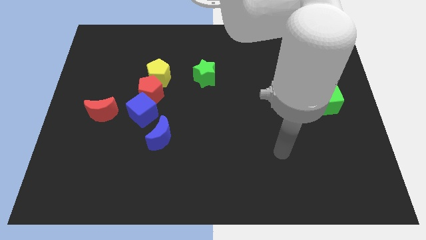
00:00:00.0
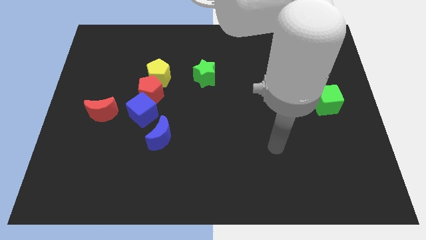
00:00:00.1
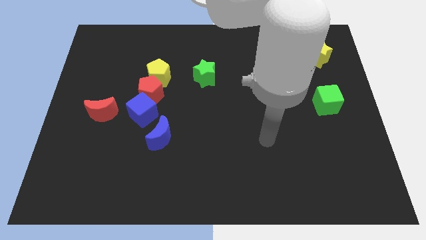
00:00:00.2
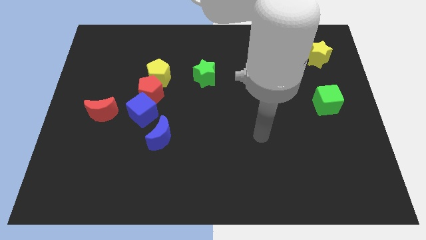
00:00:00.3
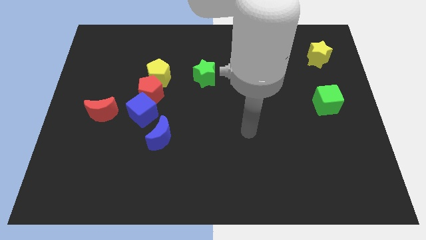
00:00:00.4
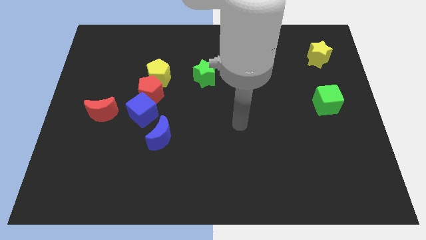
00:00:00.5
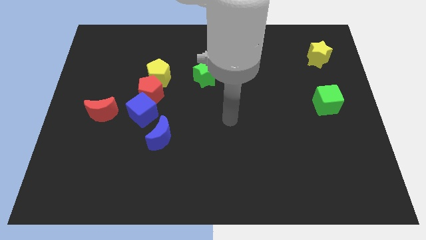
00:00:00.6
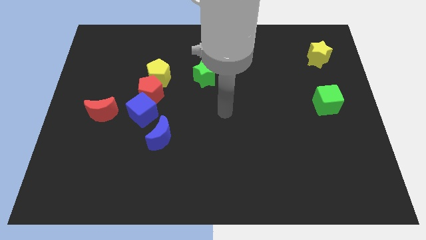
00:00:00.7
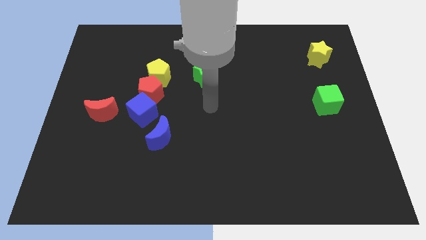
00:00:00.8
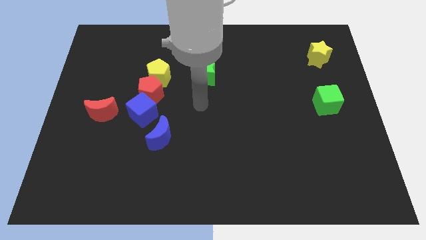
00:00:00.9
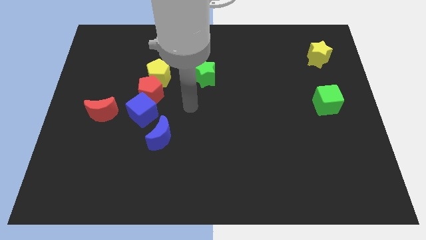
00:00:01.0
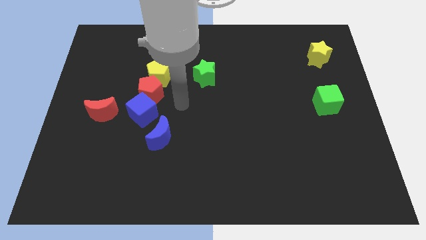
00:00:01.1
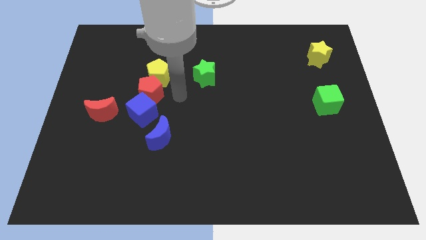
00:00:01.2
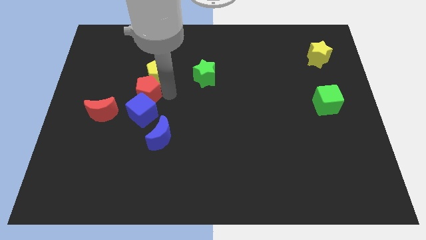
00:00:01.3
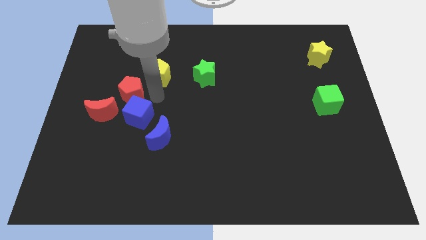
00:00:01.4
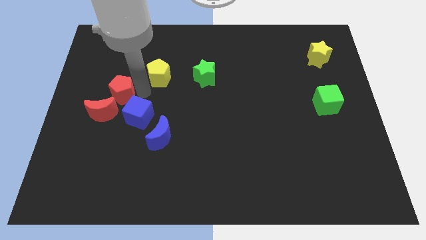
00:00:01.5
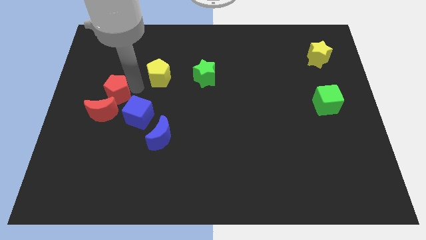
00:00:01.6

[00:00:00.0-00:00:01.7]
move the yellow pentagon away from the red pentagon

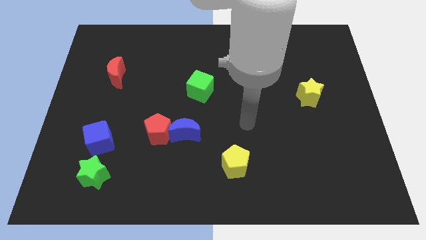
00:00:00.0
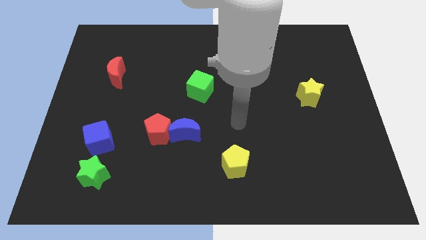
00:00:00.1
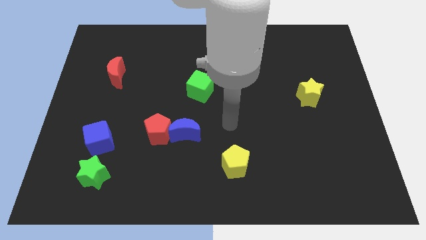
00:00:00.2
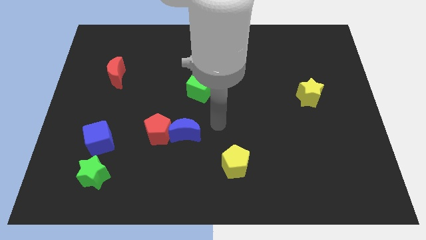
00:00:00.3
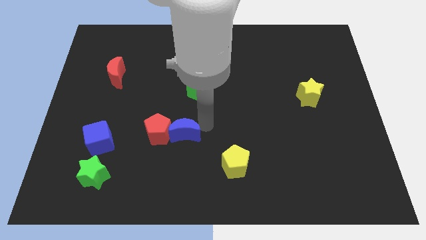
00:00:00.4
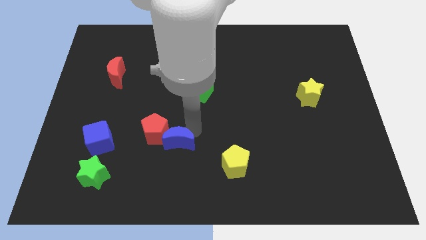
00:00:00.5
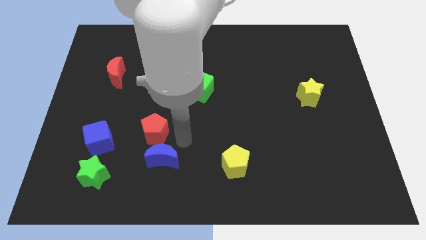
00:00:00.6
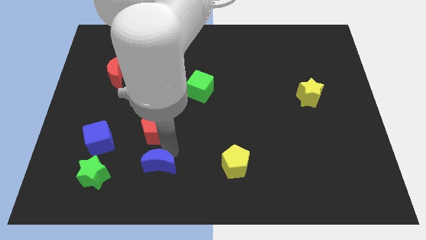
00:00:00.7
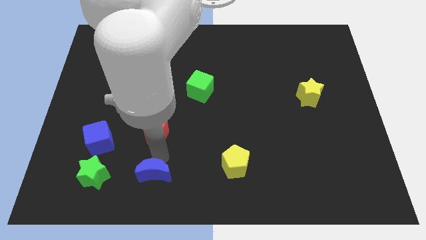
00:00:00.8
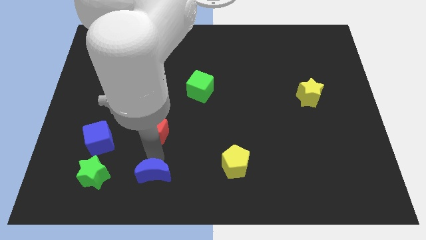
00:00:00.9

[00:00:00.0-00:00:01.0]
separate the red pentagon from the blue moon

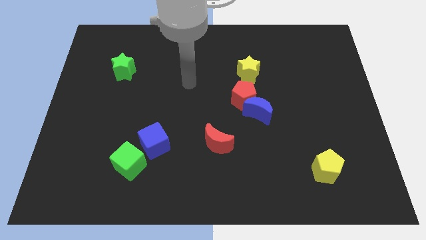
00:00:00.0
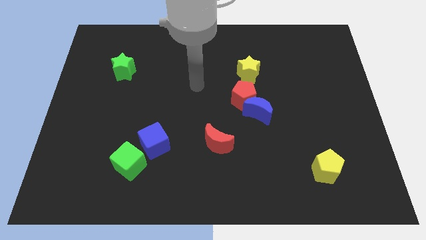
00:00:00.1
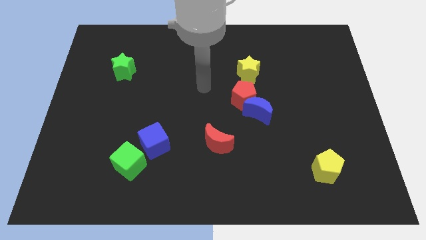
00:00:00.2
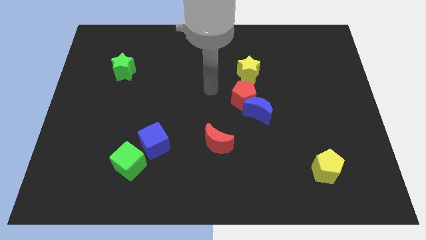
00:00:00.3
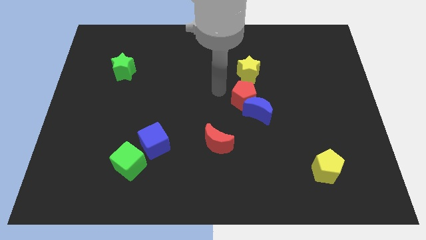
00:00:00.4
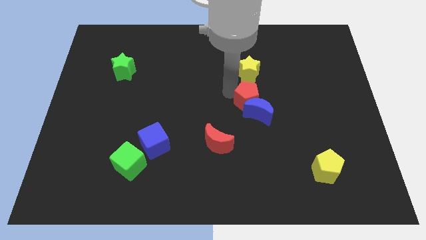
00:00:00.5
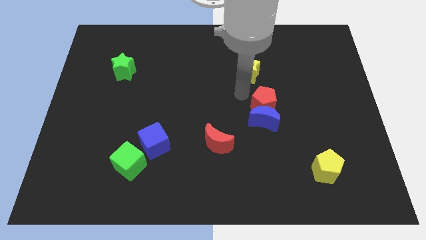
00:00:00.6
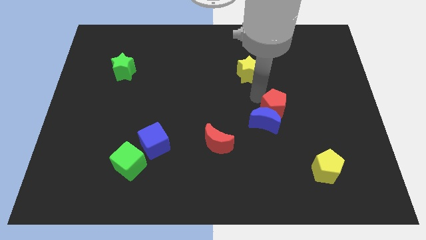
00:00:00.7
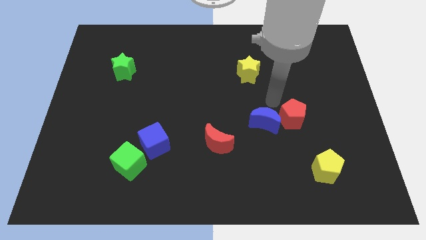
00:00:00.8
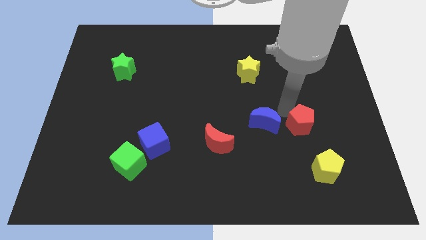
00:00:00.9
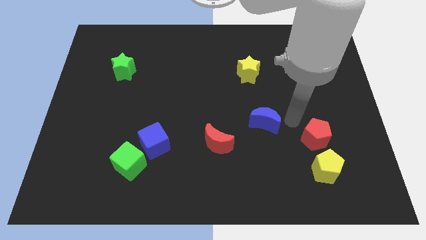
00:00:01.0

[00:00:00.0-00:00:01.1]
separate the blue moon from the red pentagon

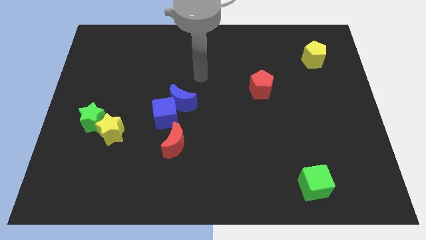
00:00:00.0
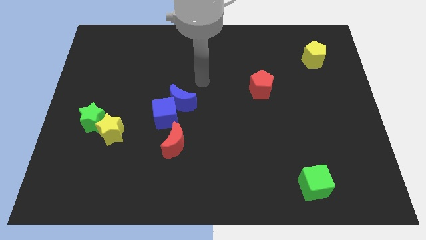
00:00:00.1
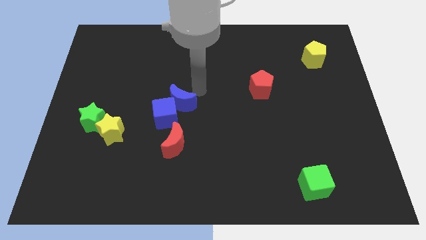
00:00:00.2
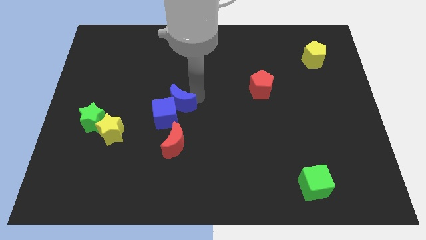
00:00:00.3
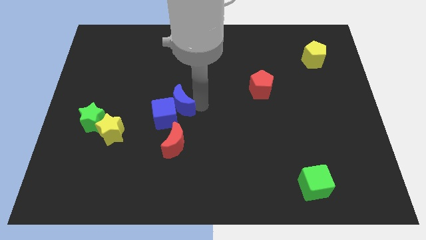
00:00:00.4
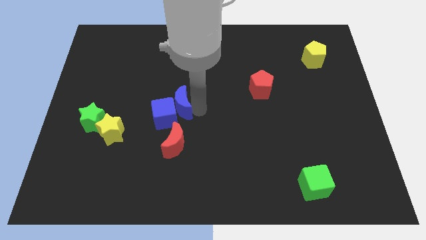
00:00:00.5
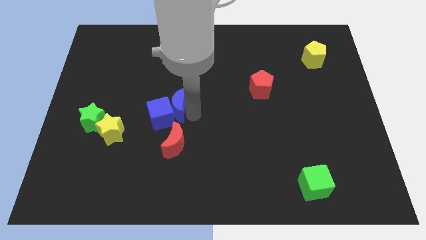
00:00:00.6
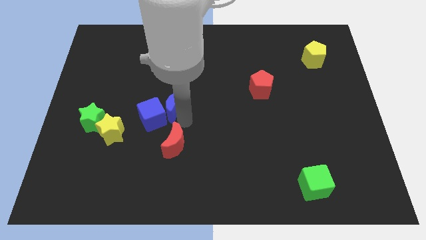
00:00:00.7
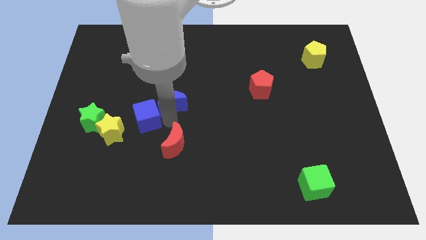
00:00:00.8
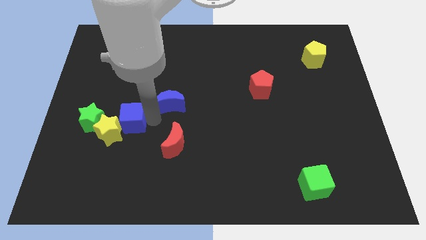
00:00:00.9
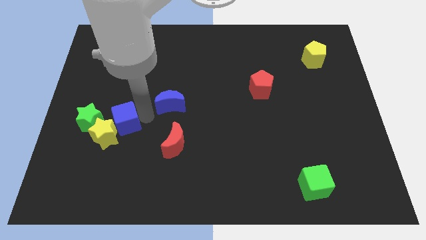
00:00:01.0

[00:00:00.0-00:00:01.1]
pull the blue moon apart from the blue cube

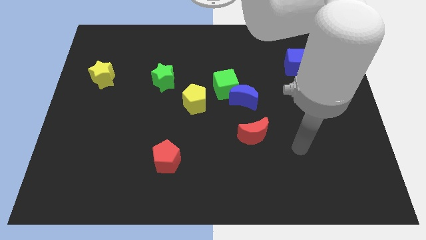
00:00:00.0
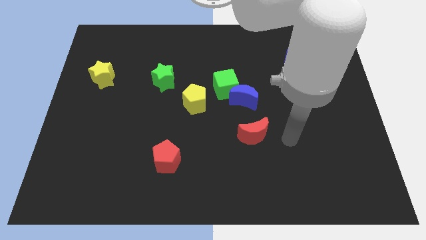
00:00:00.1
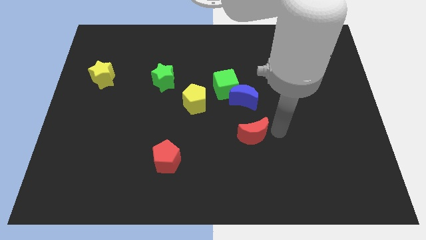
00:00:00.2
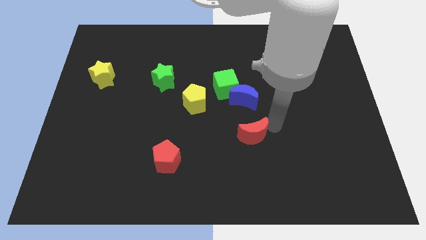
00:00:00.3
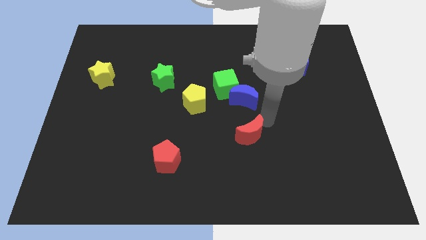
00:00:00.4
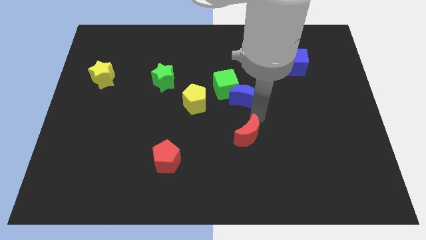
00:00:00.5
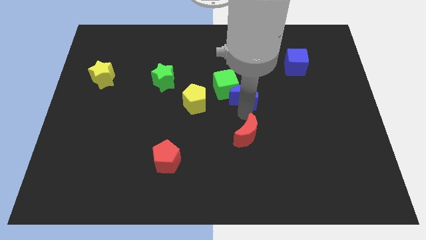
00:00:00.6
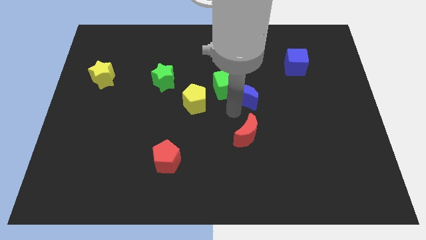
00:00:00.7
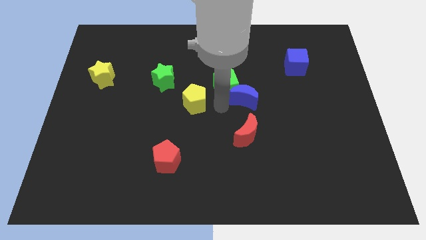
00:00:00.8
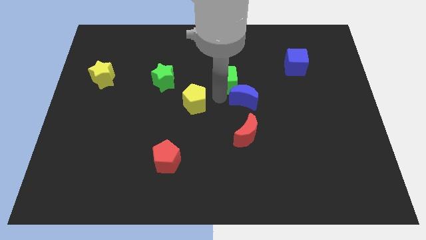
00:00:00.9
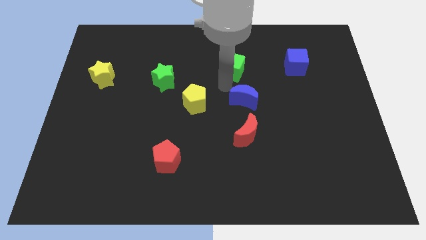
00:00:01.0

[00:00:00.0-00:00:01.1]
pull the blue moon apart from the green cube

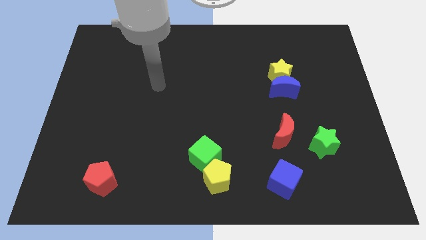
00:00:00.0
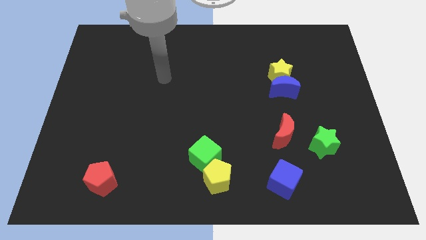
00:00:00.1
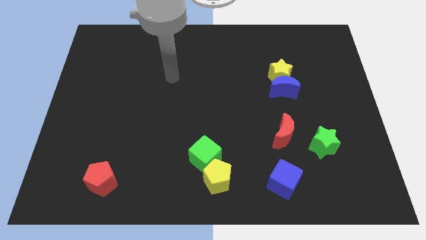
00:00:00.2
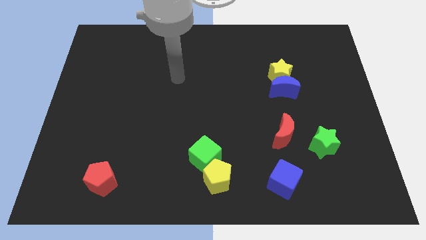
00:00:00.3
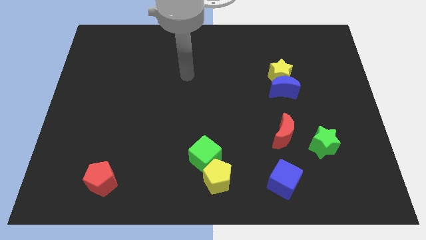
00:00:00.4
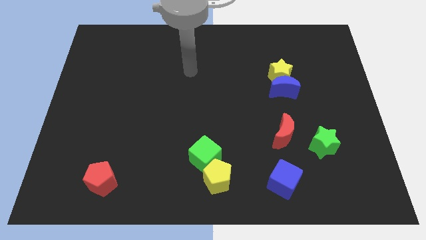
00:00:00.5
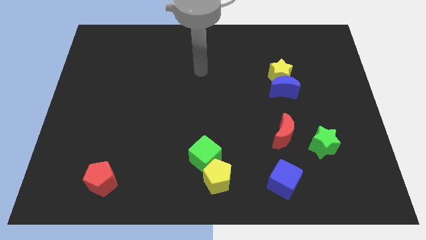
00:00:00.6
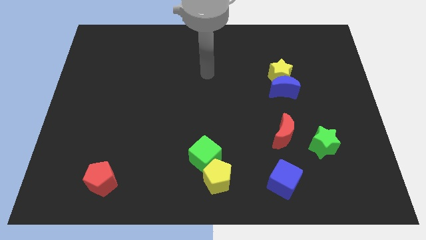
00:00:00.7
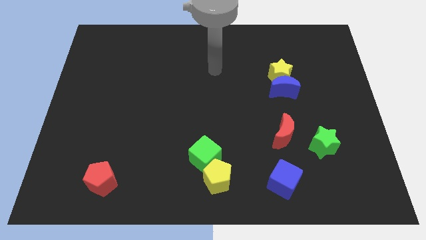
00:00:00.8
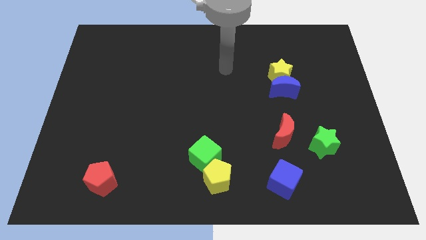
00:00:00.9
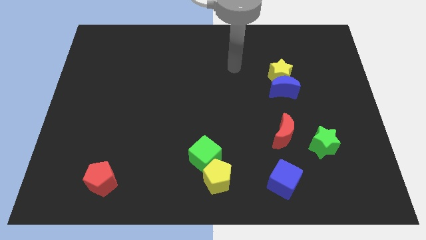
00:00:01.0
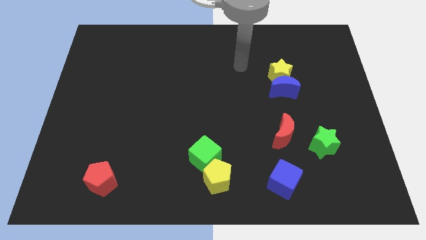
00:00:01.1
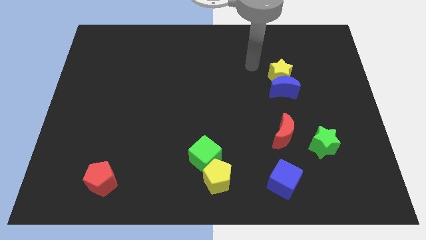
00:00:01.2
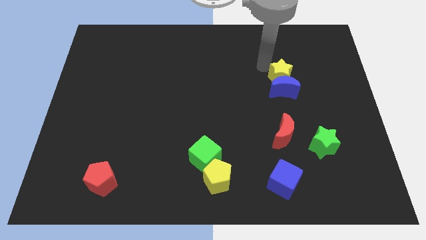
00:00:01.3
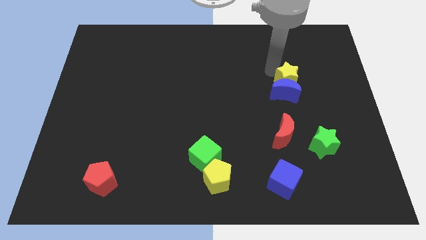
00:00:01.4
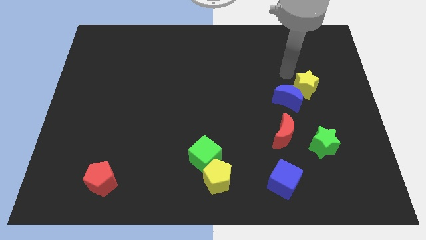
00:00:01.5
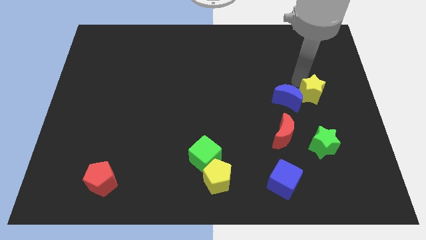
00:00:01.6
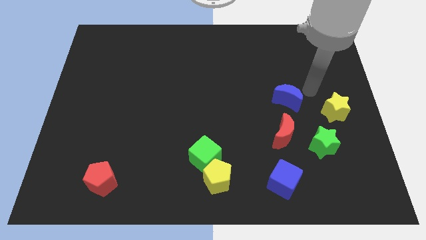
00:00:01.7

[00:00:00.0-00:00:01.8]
pull the blue moon apart from the yellow star

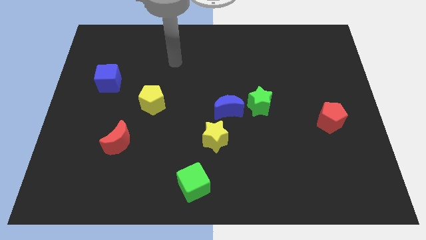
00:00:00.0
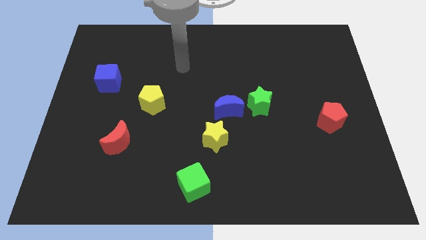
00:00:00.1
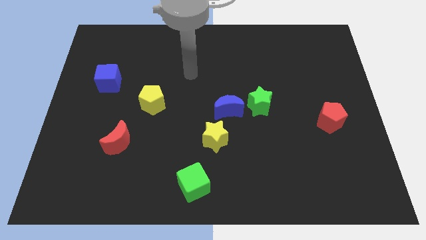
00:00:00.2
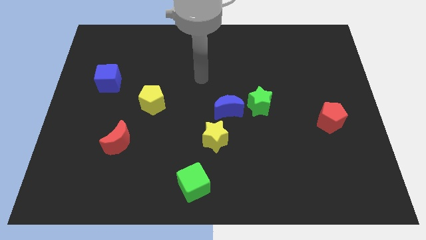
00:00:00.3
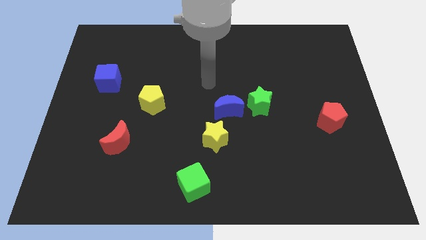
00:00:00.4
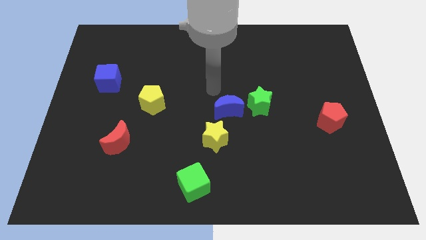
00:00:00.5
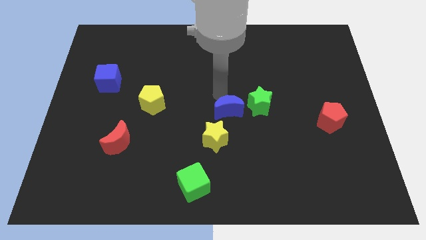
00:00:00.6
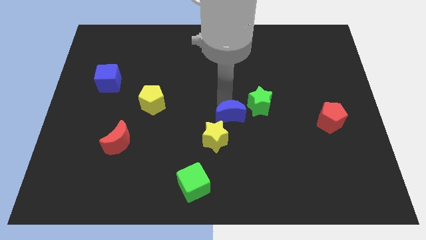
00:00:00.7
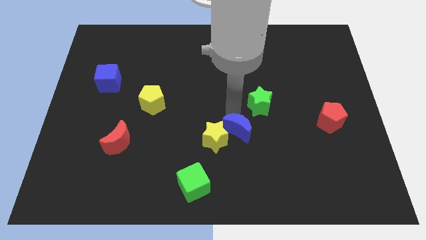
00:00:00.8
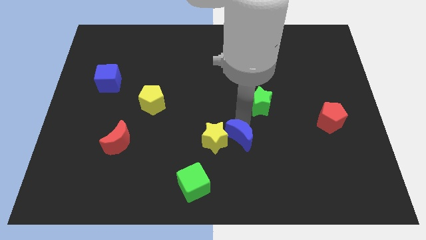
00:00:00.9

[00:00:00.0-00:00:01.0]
move the green star away from the blue moon

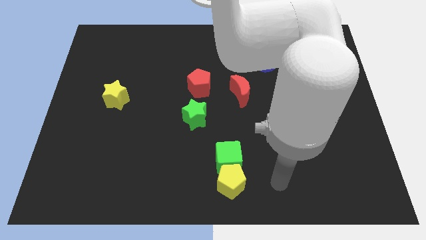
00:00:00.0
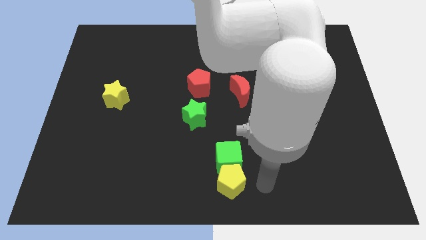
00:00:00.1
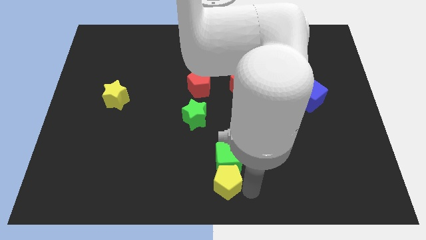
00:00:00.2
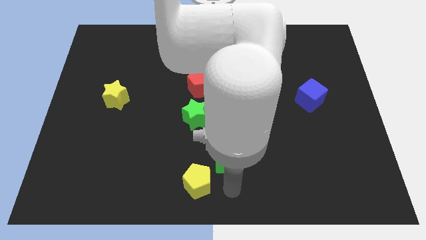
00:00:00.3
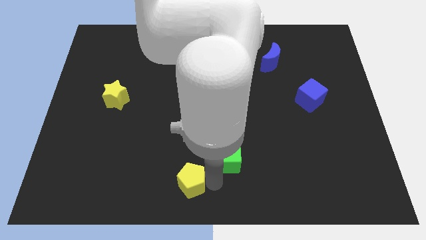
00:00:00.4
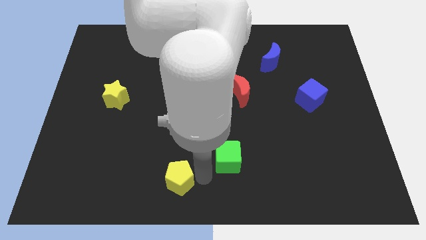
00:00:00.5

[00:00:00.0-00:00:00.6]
move the green cube away from the yellow pentagon
